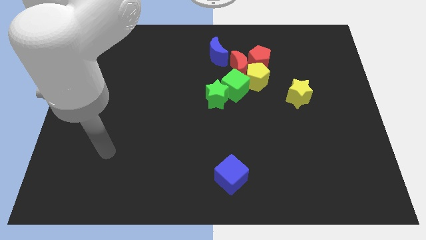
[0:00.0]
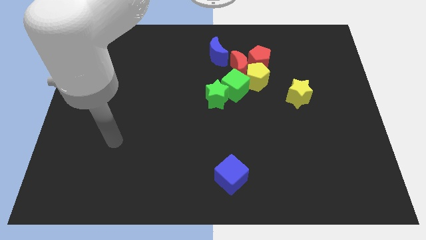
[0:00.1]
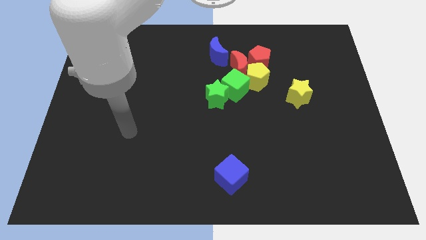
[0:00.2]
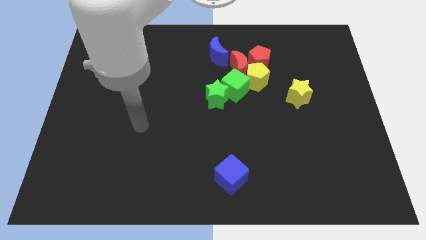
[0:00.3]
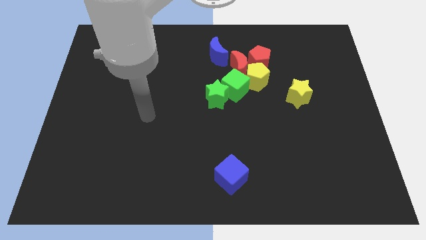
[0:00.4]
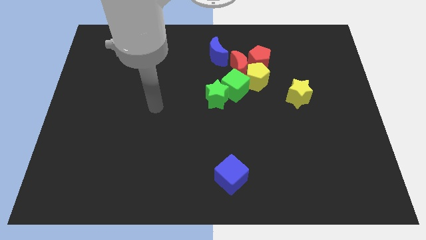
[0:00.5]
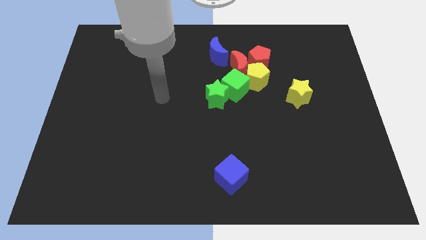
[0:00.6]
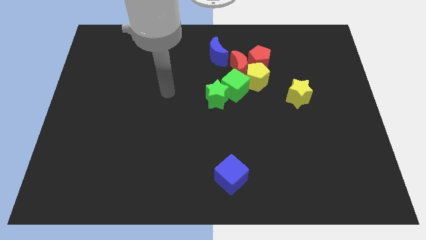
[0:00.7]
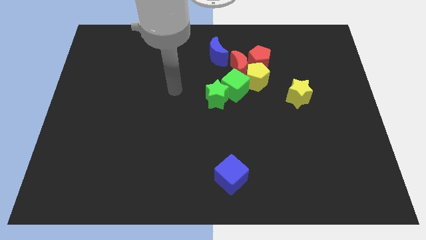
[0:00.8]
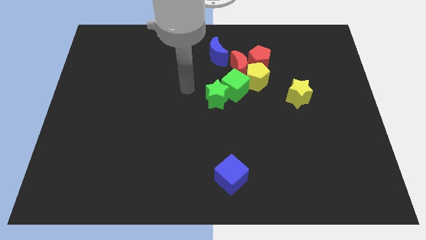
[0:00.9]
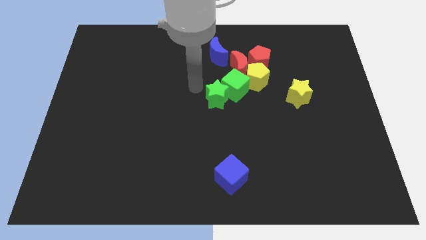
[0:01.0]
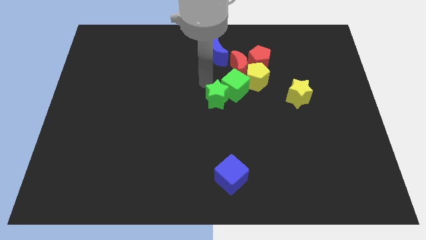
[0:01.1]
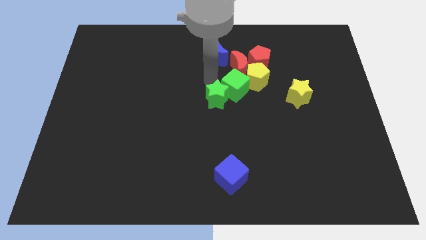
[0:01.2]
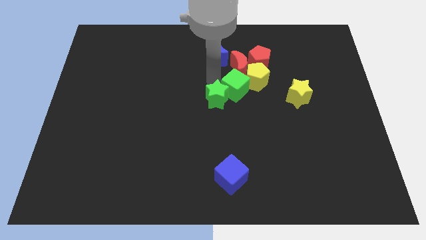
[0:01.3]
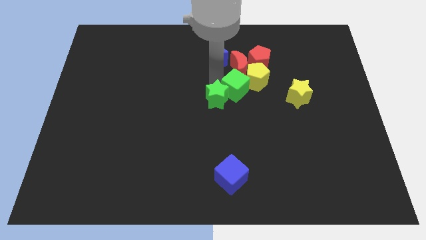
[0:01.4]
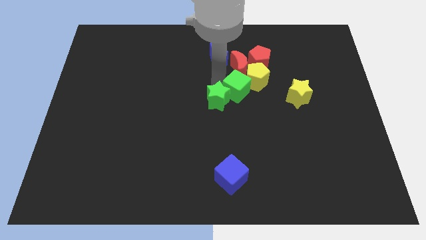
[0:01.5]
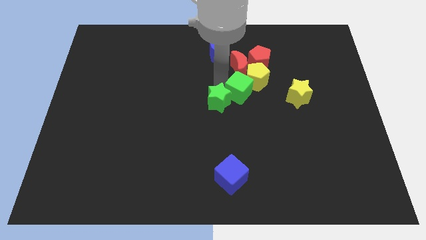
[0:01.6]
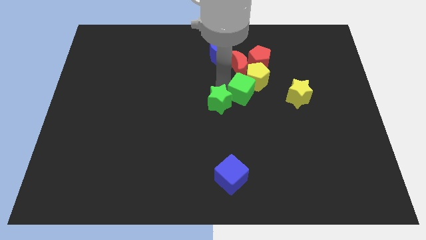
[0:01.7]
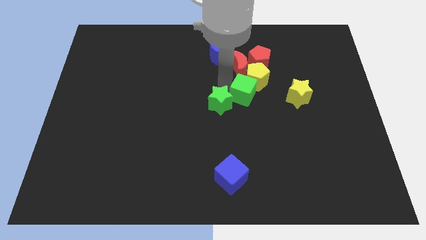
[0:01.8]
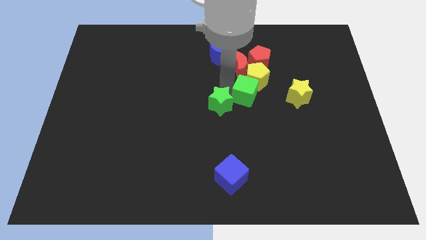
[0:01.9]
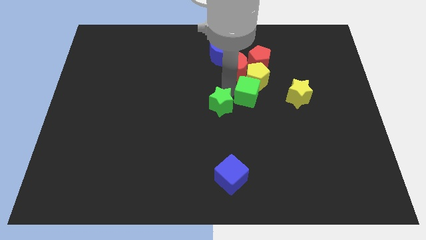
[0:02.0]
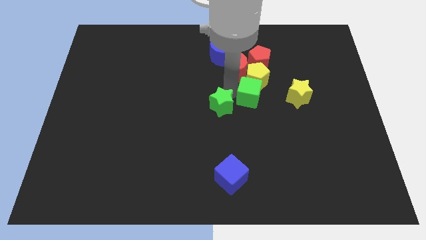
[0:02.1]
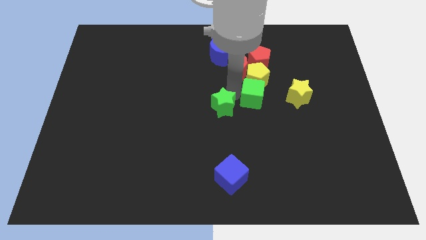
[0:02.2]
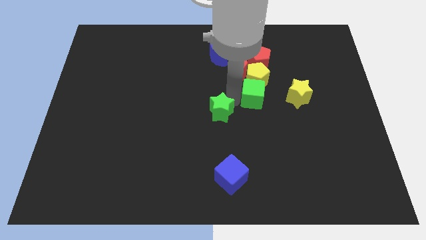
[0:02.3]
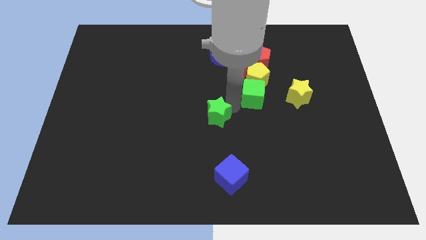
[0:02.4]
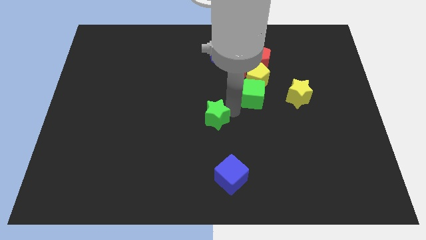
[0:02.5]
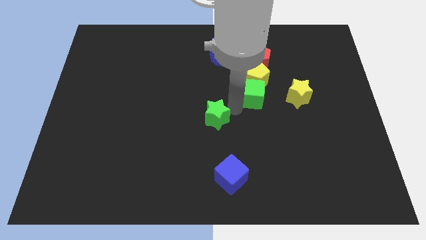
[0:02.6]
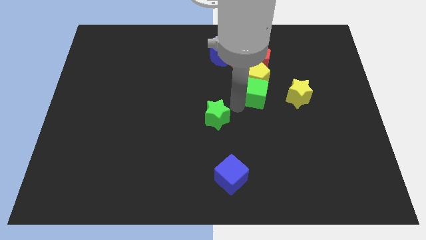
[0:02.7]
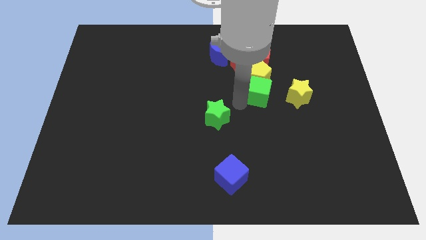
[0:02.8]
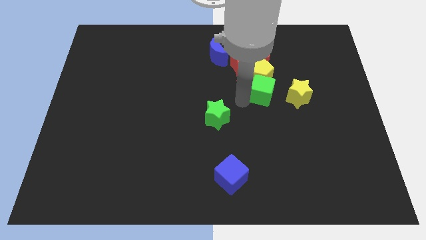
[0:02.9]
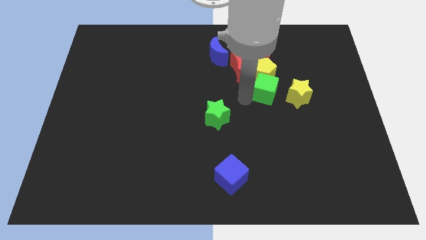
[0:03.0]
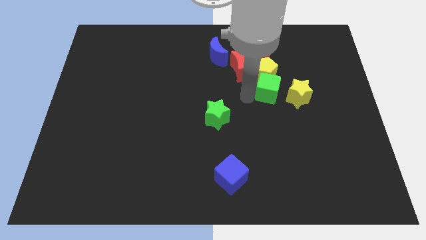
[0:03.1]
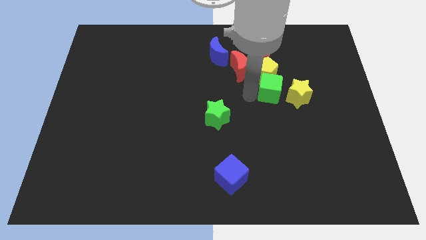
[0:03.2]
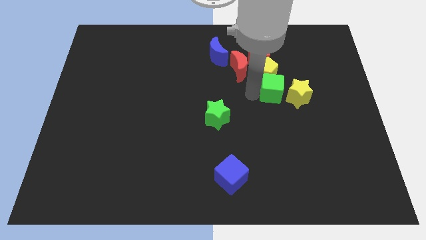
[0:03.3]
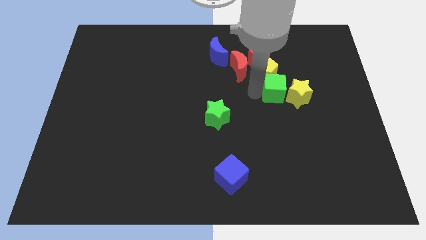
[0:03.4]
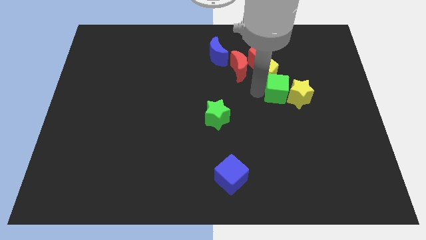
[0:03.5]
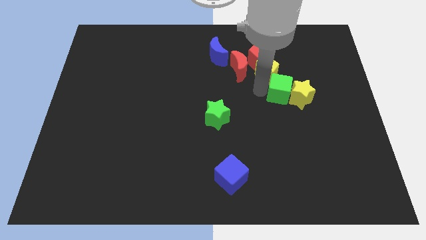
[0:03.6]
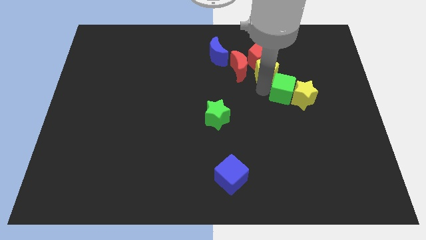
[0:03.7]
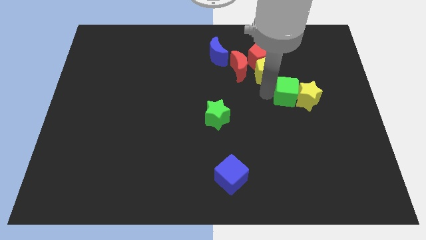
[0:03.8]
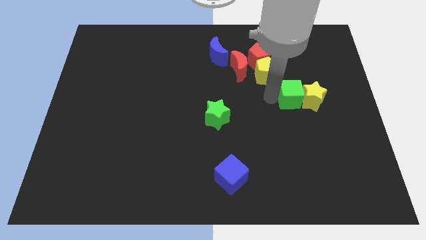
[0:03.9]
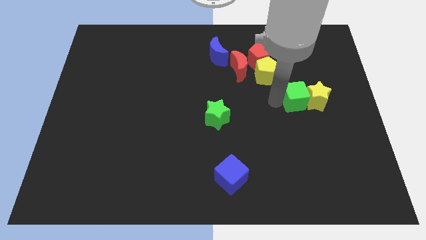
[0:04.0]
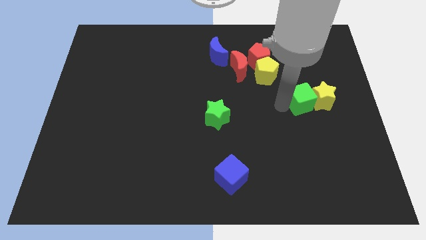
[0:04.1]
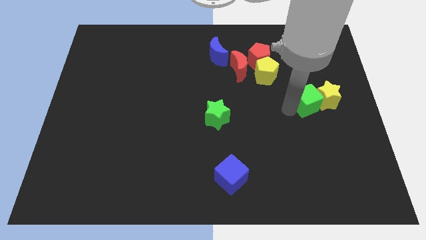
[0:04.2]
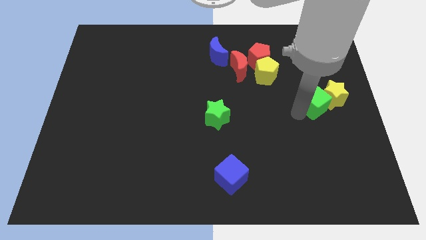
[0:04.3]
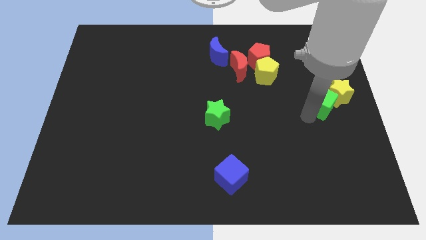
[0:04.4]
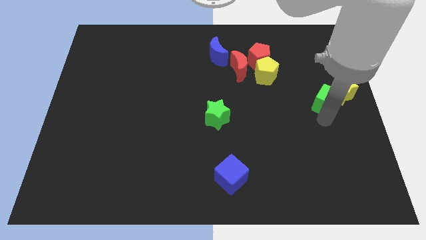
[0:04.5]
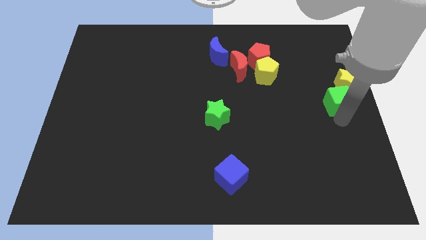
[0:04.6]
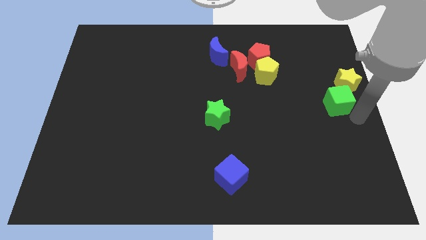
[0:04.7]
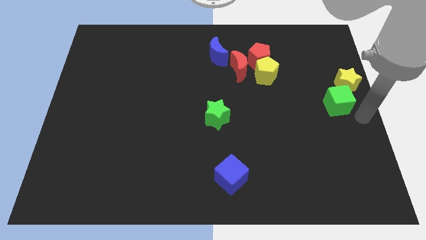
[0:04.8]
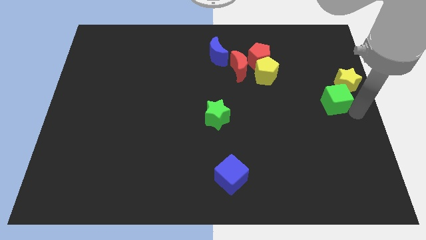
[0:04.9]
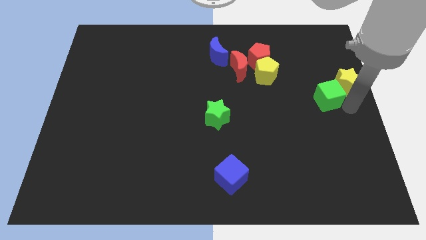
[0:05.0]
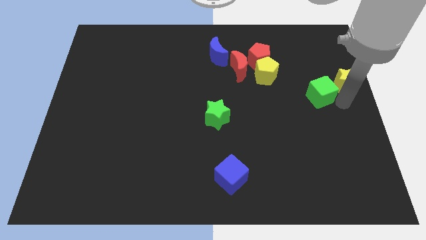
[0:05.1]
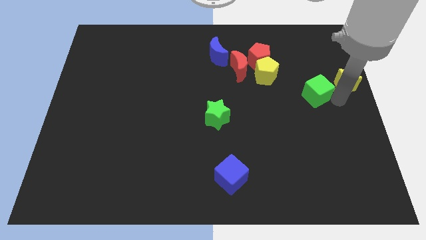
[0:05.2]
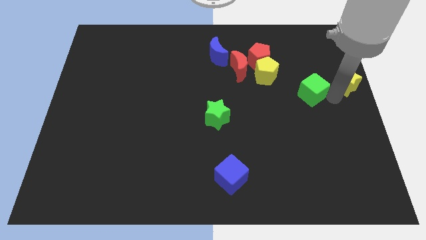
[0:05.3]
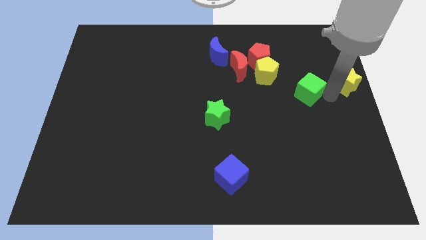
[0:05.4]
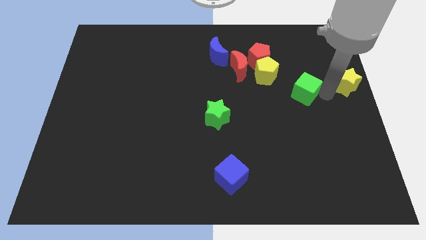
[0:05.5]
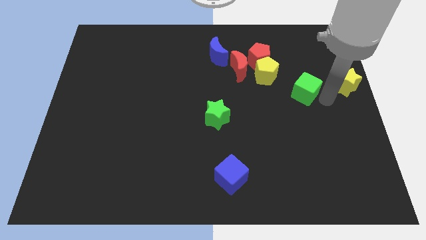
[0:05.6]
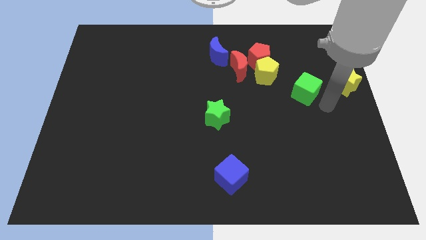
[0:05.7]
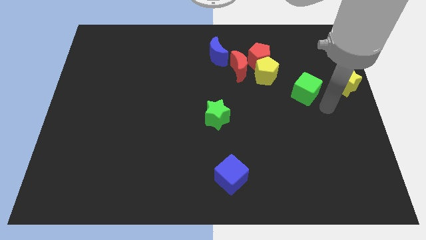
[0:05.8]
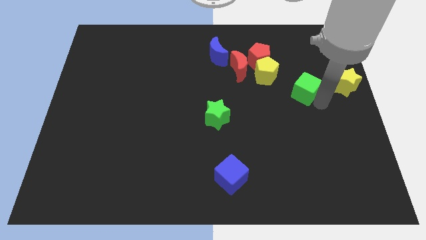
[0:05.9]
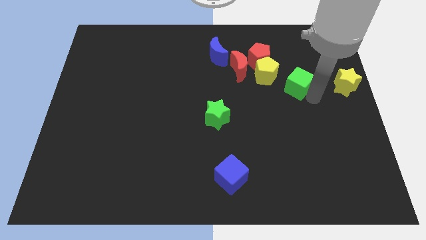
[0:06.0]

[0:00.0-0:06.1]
move the green cube to the bottom right of the red pentagon

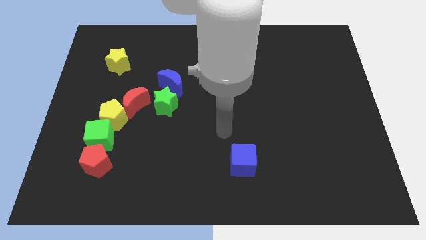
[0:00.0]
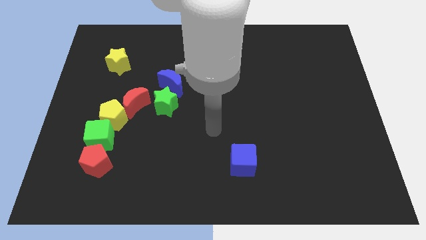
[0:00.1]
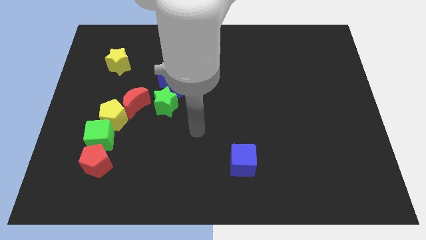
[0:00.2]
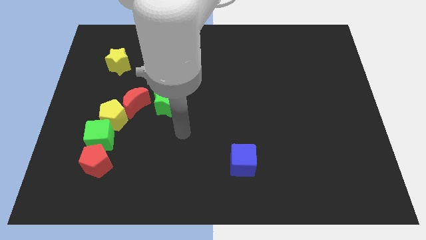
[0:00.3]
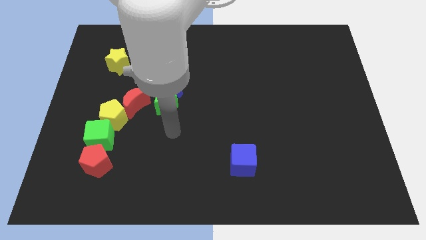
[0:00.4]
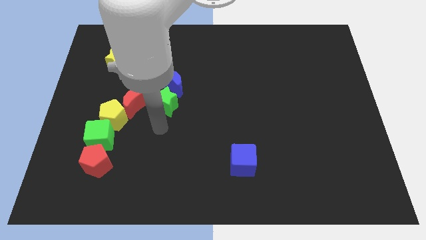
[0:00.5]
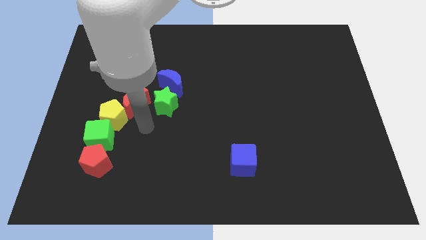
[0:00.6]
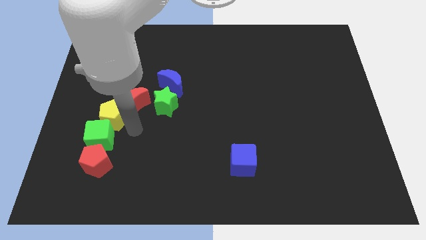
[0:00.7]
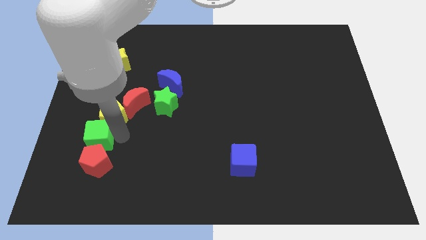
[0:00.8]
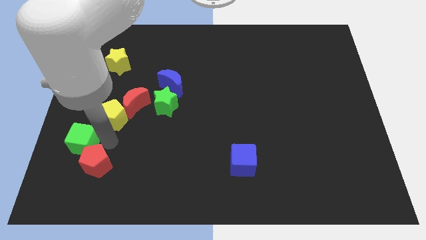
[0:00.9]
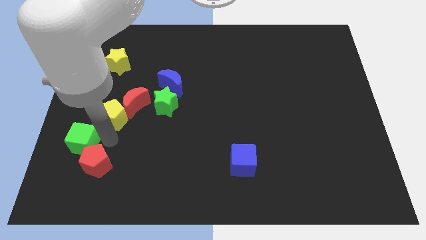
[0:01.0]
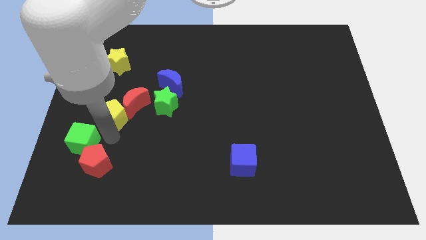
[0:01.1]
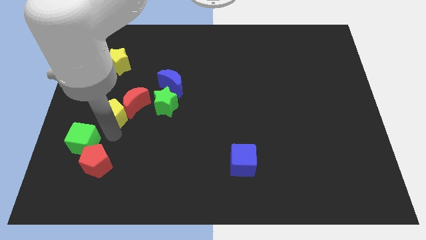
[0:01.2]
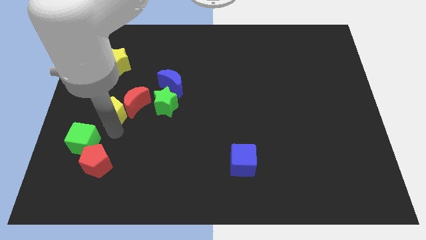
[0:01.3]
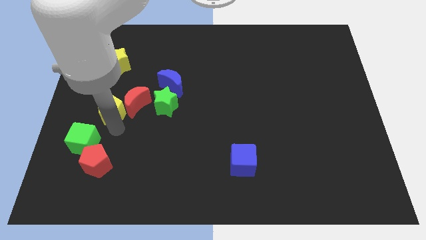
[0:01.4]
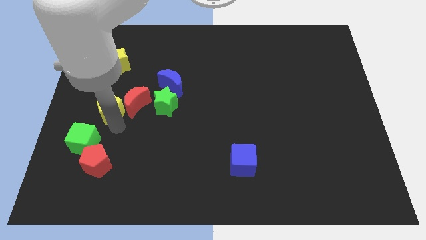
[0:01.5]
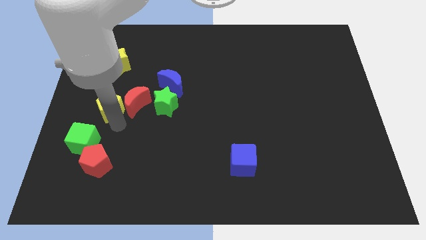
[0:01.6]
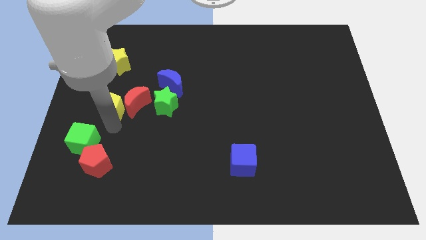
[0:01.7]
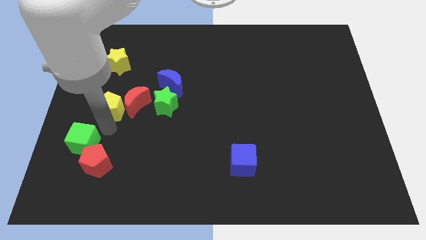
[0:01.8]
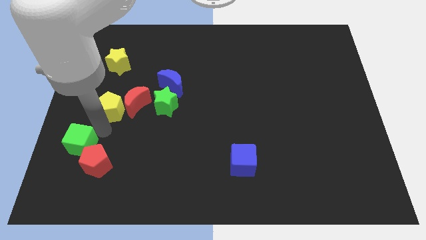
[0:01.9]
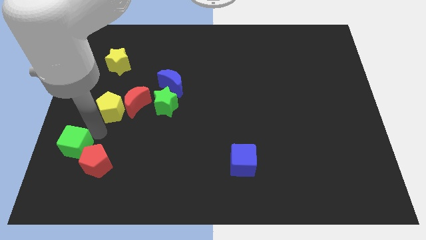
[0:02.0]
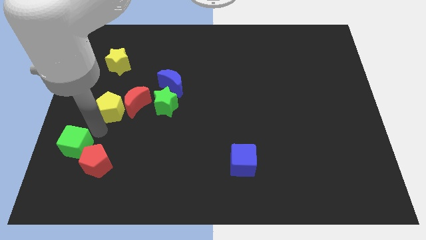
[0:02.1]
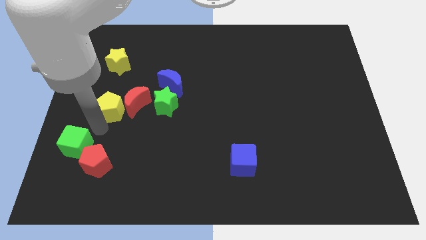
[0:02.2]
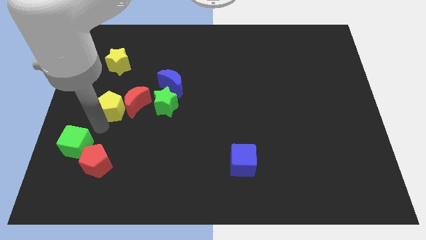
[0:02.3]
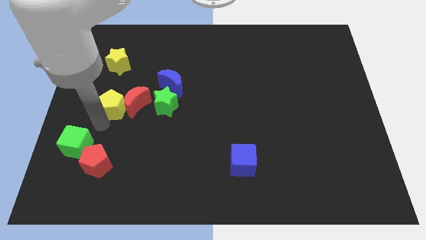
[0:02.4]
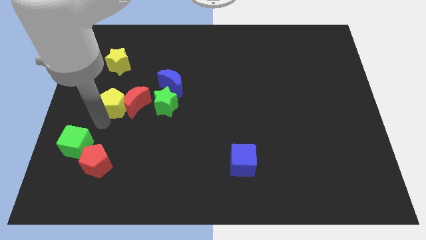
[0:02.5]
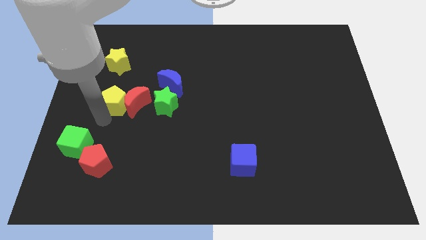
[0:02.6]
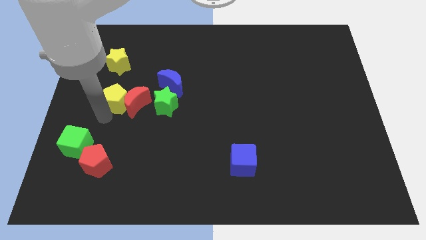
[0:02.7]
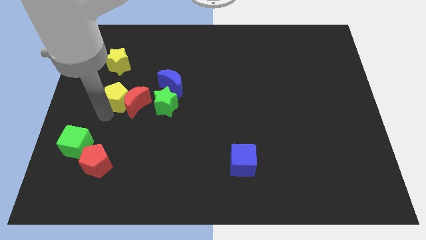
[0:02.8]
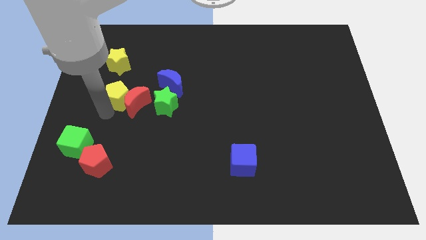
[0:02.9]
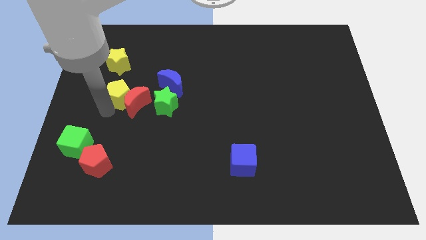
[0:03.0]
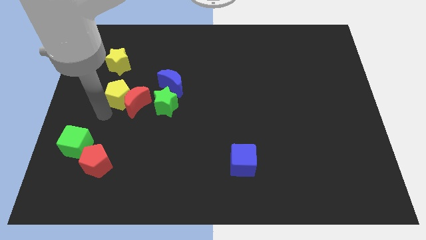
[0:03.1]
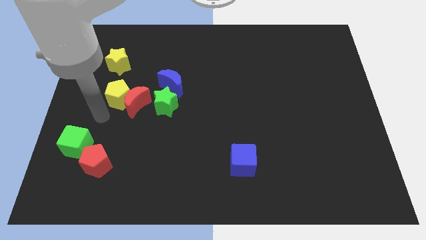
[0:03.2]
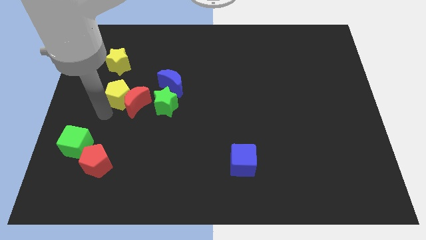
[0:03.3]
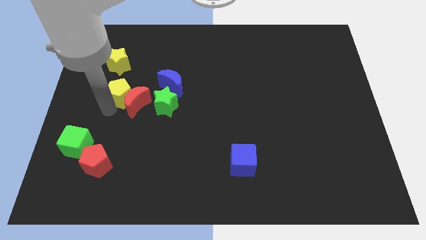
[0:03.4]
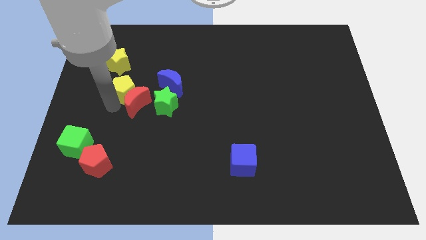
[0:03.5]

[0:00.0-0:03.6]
move the yellow pentagon to the top left side of the green star
